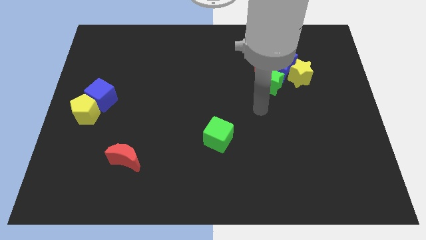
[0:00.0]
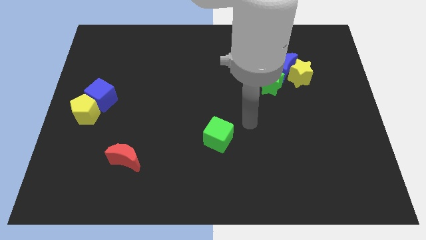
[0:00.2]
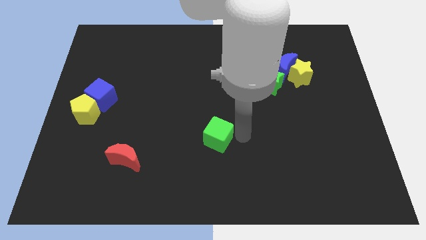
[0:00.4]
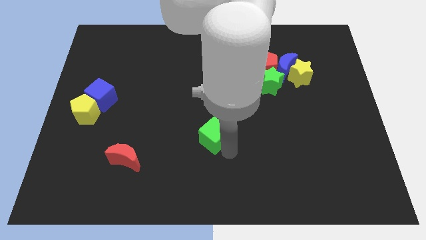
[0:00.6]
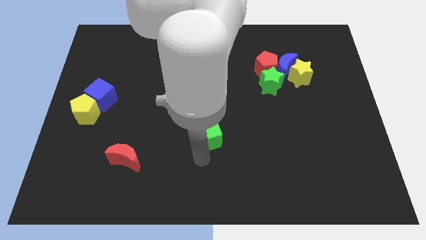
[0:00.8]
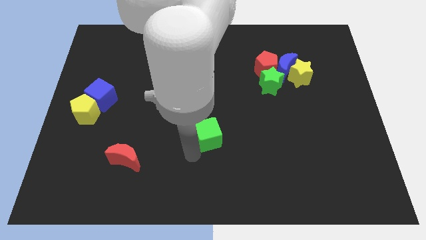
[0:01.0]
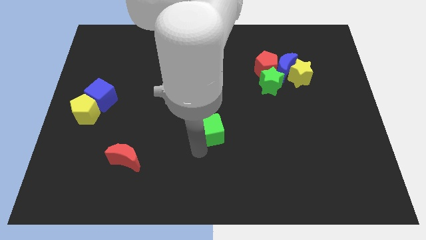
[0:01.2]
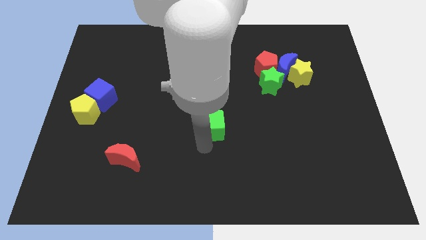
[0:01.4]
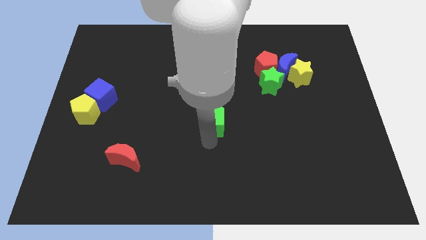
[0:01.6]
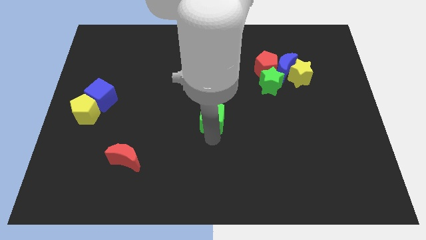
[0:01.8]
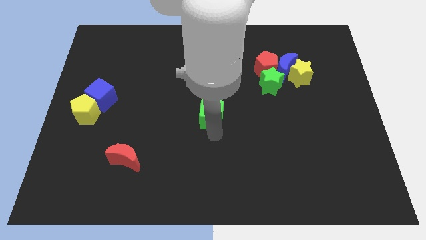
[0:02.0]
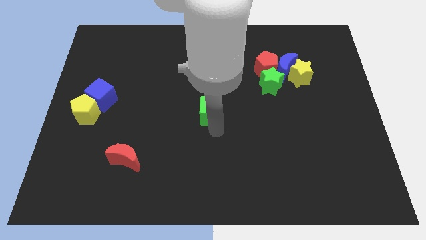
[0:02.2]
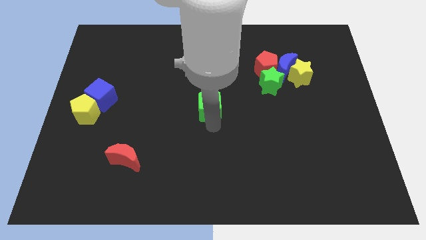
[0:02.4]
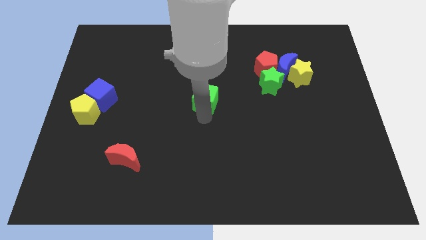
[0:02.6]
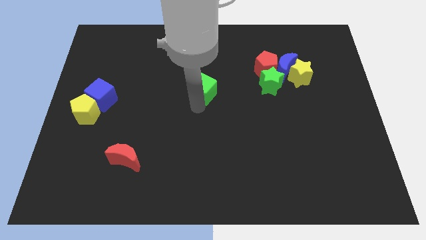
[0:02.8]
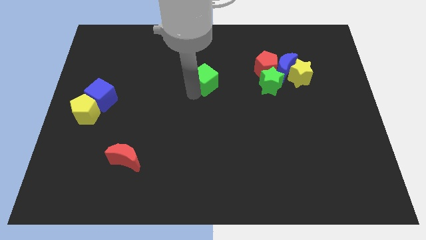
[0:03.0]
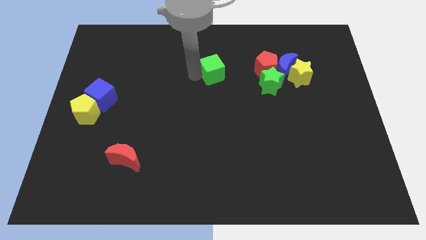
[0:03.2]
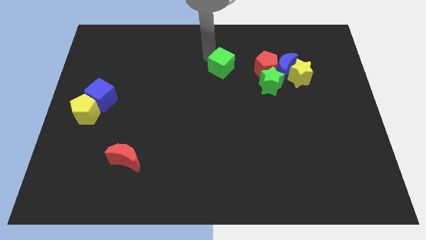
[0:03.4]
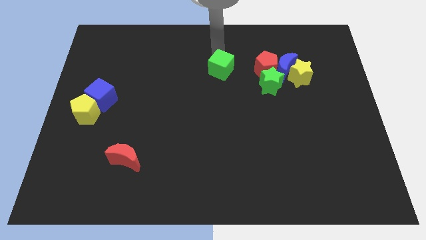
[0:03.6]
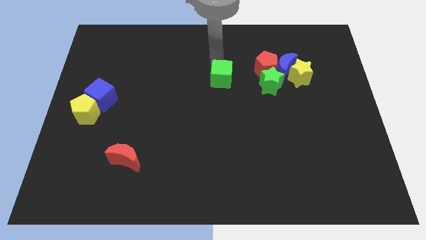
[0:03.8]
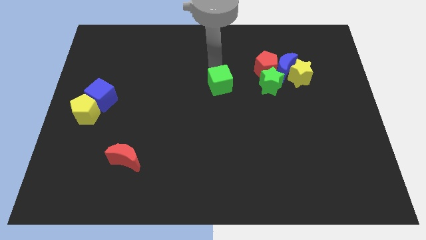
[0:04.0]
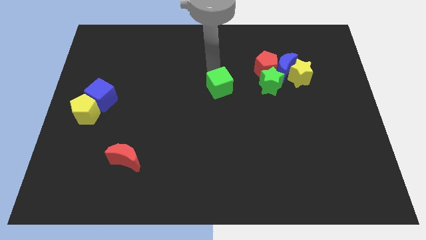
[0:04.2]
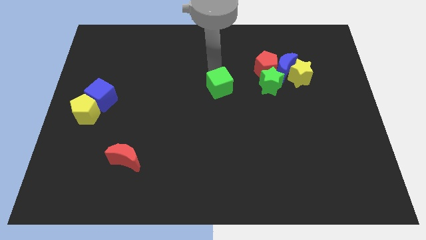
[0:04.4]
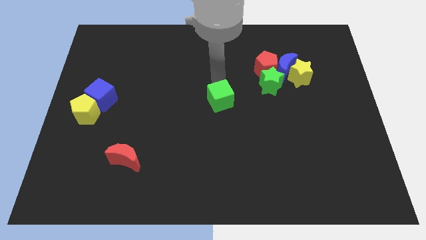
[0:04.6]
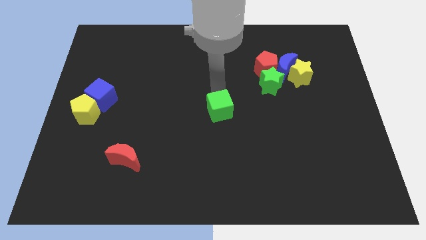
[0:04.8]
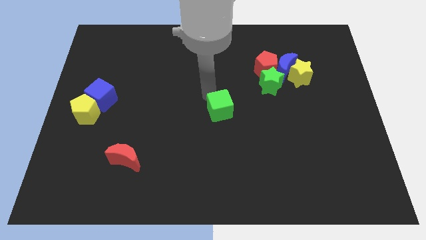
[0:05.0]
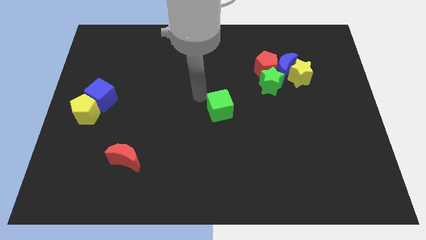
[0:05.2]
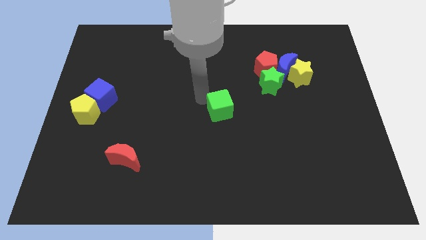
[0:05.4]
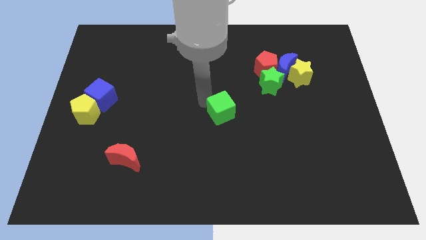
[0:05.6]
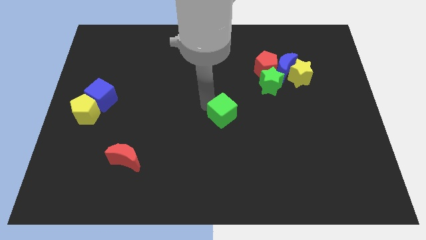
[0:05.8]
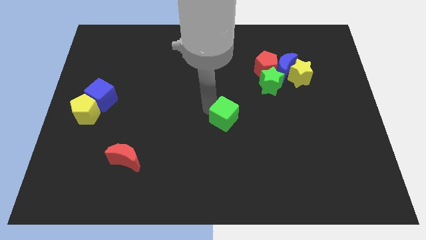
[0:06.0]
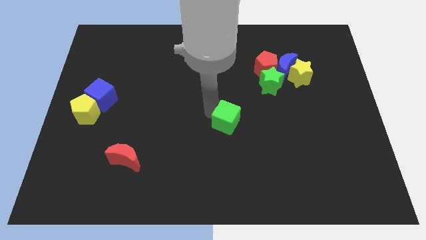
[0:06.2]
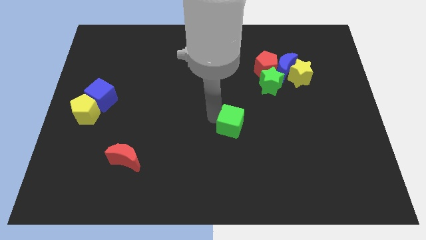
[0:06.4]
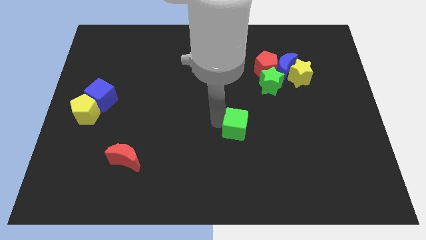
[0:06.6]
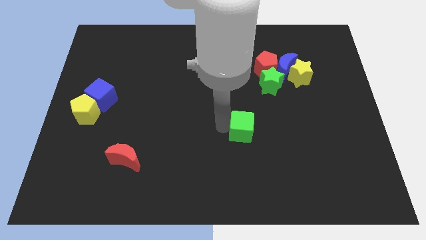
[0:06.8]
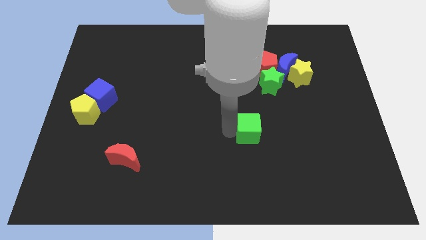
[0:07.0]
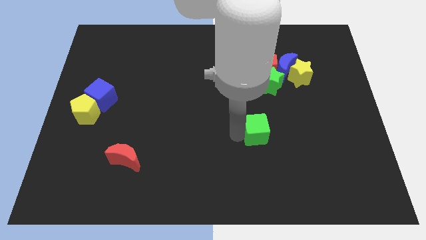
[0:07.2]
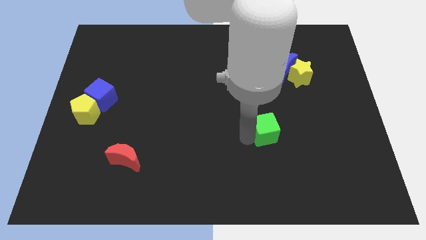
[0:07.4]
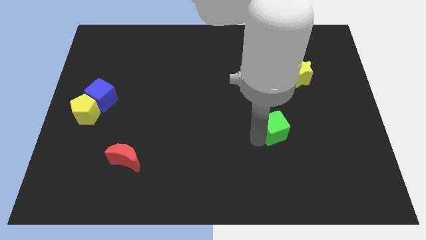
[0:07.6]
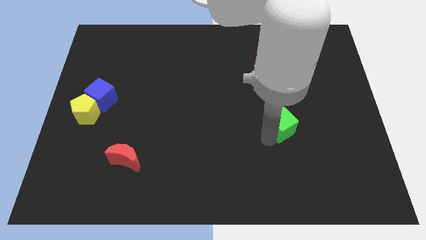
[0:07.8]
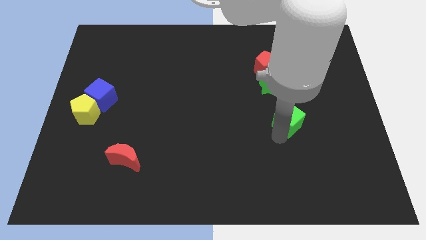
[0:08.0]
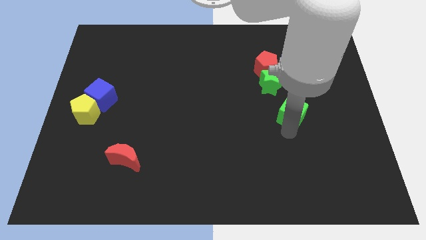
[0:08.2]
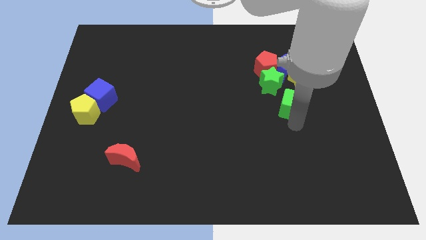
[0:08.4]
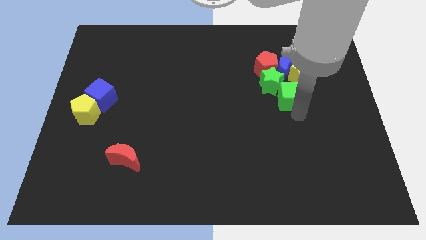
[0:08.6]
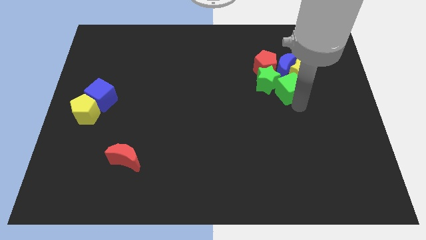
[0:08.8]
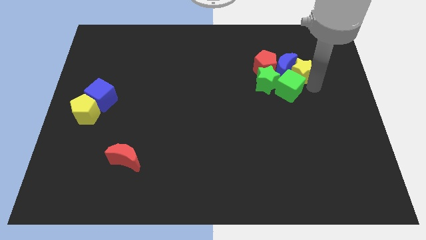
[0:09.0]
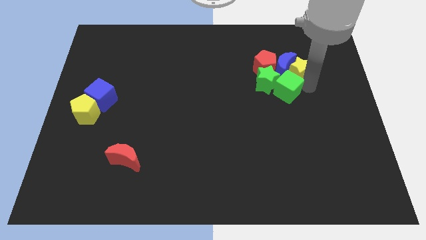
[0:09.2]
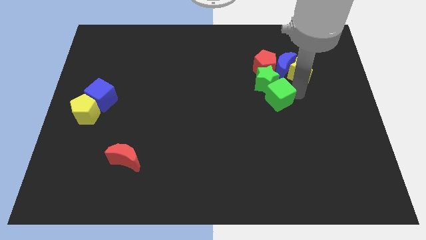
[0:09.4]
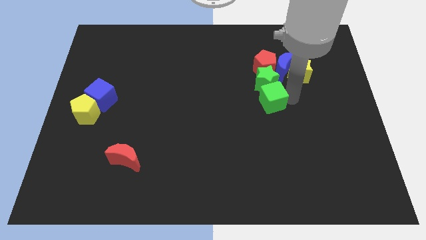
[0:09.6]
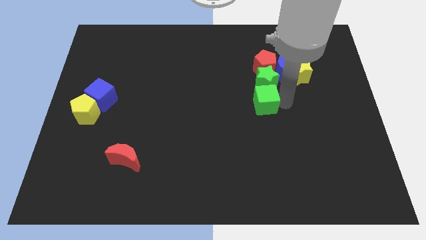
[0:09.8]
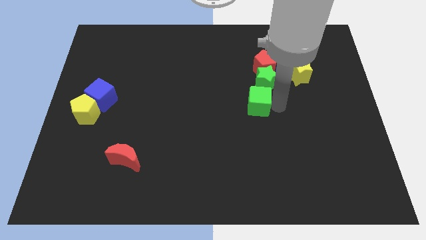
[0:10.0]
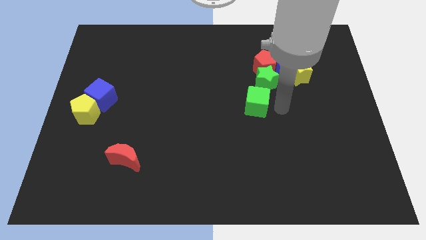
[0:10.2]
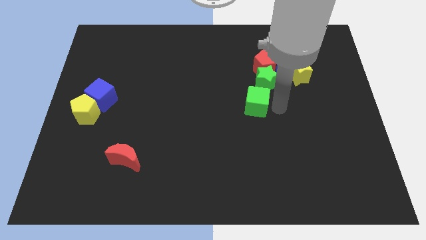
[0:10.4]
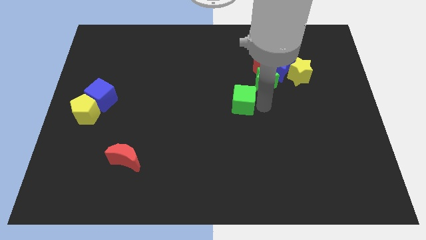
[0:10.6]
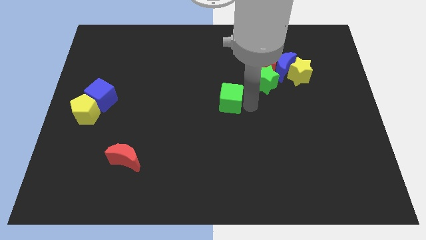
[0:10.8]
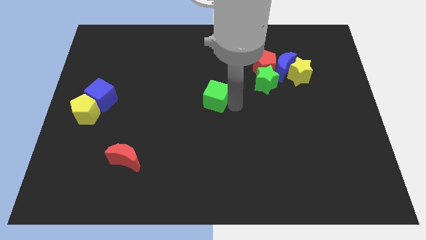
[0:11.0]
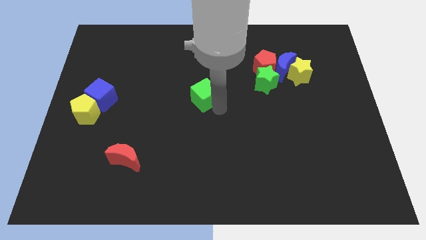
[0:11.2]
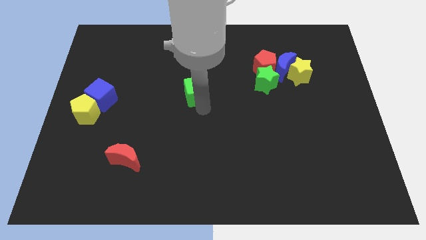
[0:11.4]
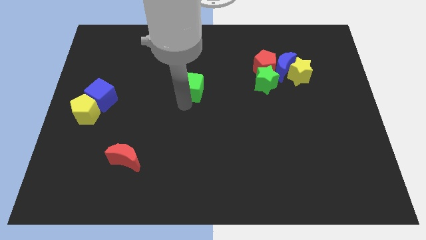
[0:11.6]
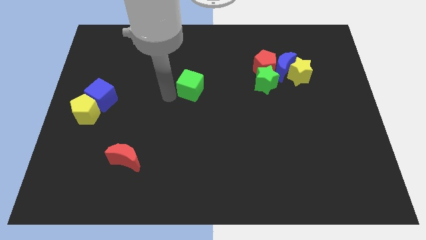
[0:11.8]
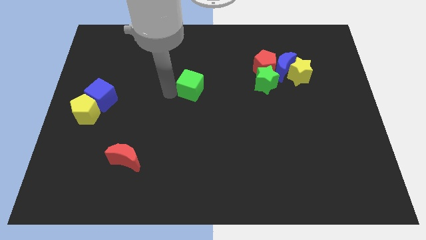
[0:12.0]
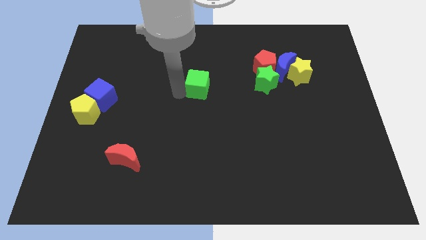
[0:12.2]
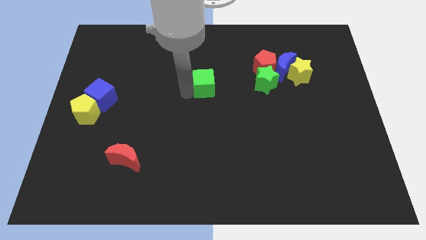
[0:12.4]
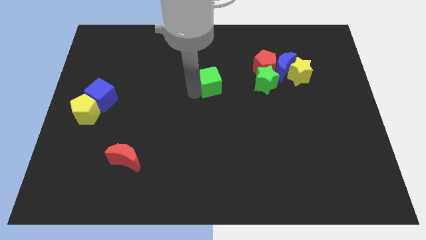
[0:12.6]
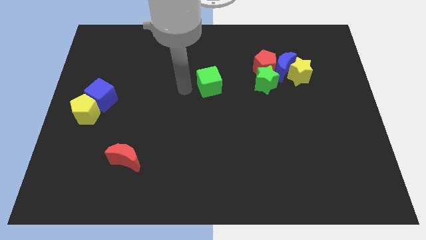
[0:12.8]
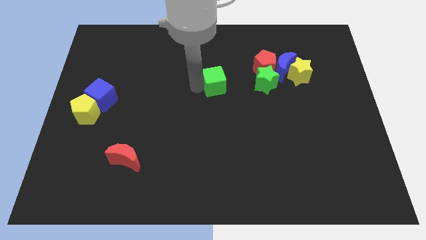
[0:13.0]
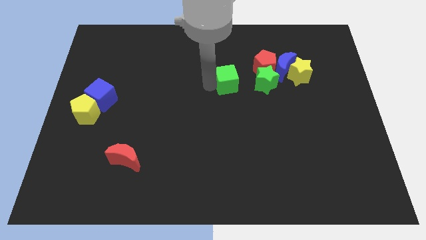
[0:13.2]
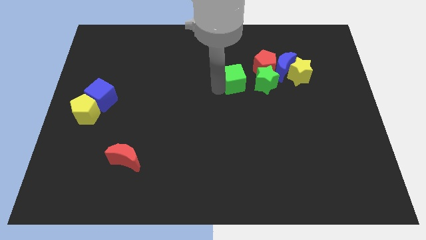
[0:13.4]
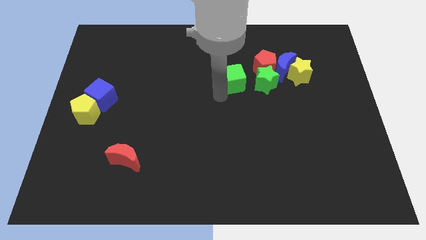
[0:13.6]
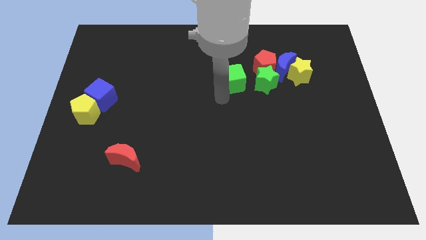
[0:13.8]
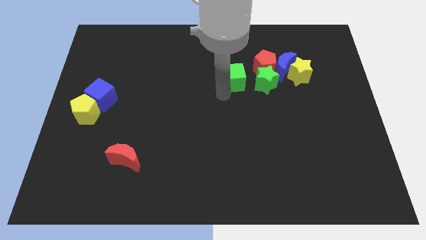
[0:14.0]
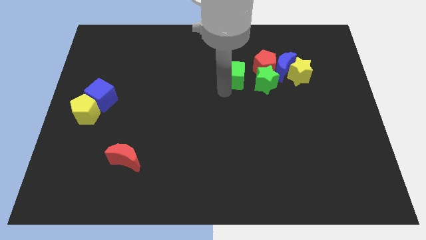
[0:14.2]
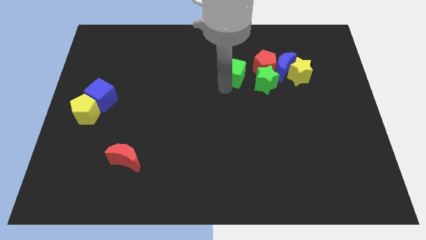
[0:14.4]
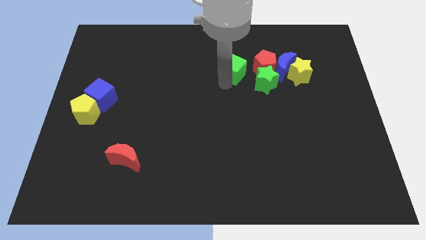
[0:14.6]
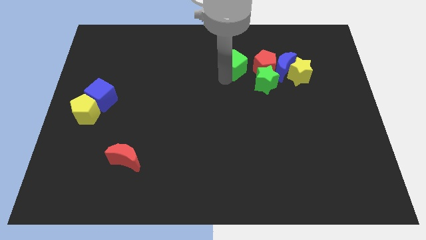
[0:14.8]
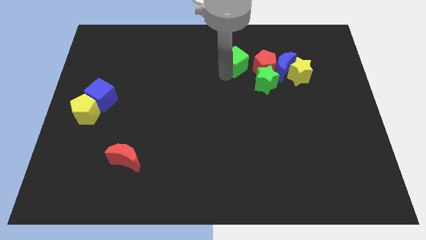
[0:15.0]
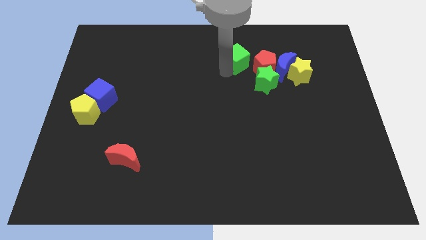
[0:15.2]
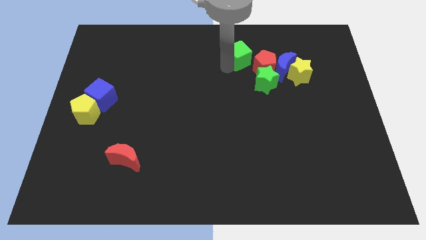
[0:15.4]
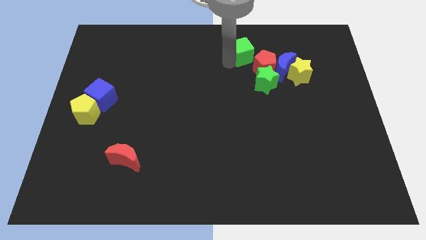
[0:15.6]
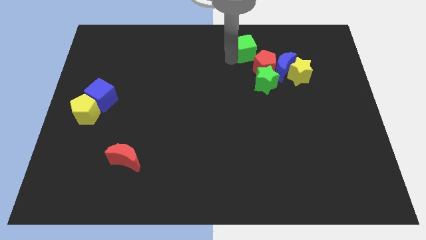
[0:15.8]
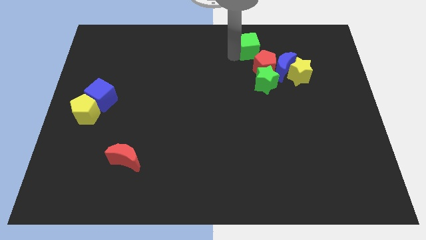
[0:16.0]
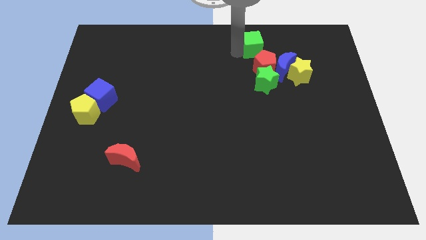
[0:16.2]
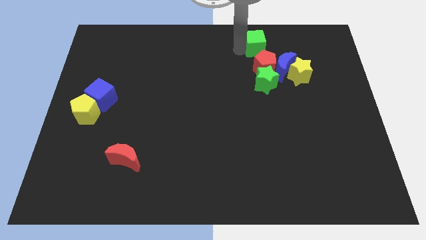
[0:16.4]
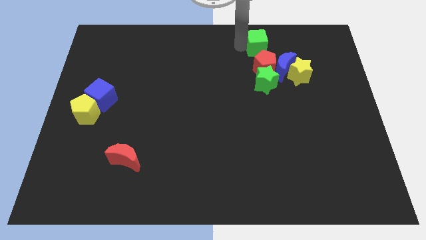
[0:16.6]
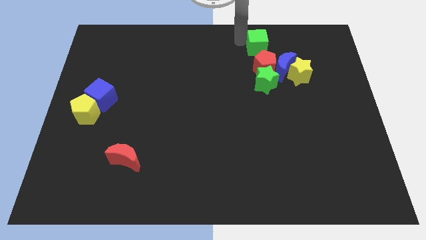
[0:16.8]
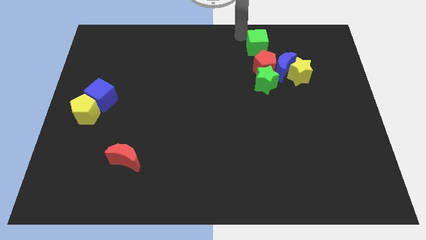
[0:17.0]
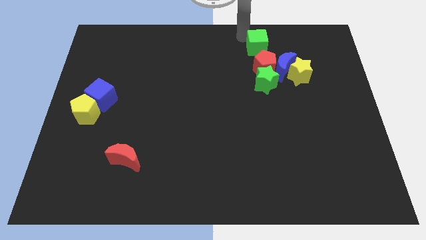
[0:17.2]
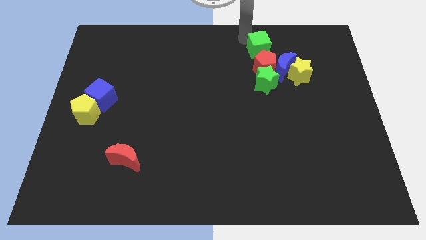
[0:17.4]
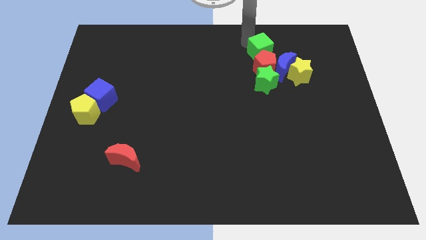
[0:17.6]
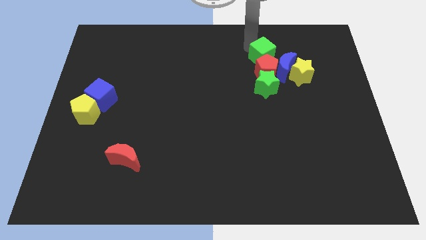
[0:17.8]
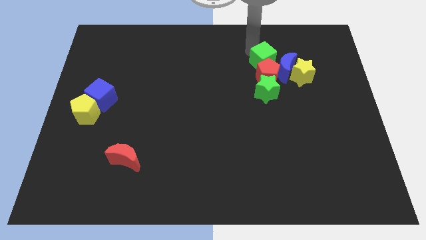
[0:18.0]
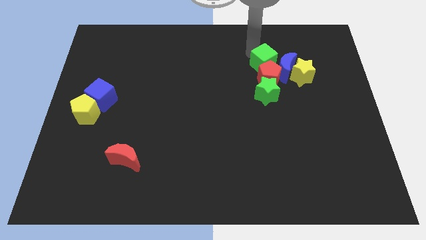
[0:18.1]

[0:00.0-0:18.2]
slide the green cube next to the blue moon
